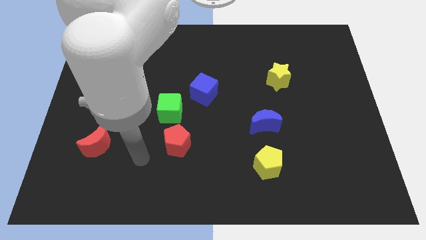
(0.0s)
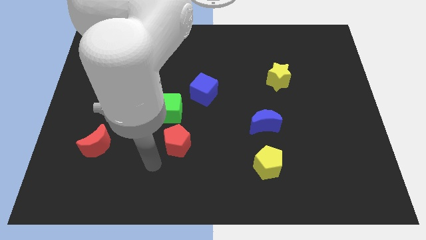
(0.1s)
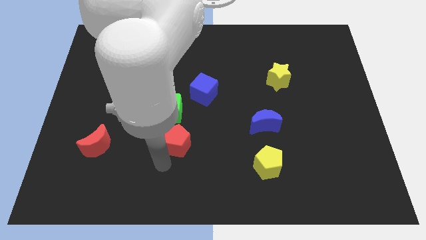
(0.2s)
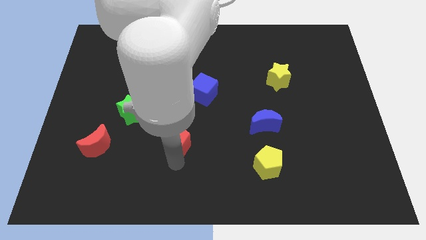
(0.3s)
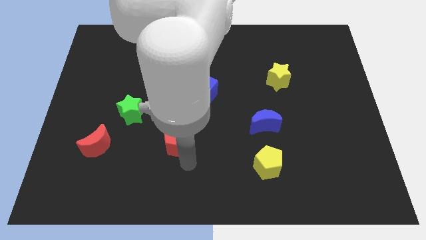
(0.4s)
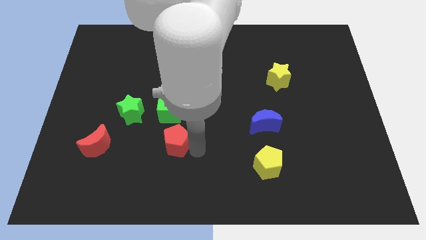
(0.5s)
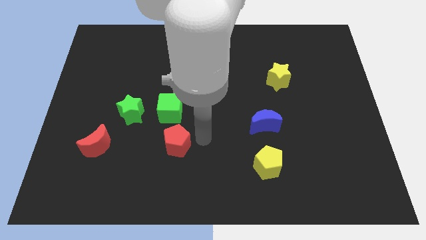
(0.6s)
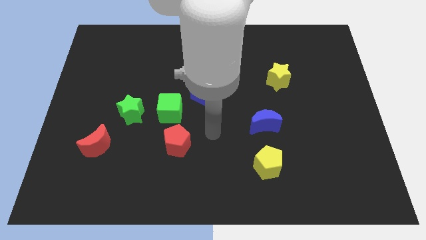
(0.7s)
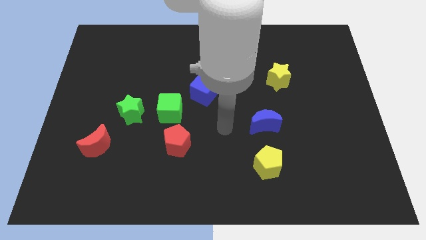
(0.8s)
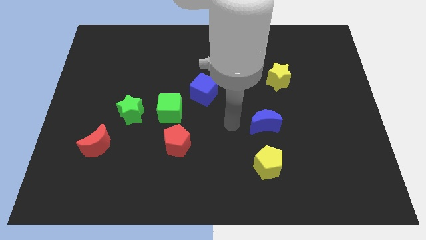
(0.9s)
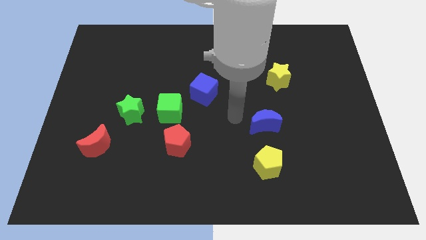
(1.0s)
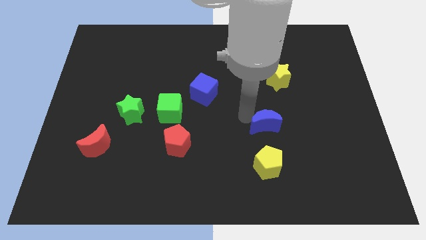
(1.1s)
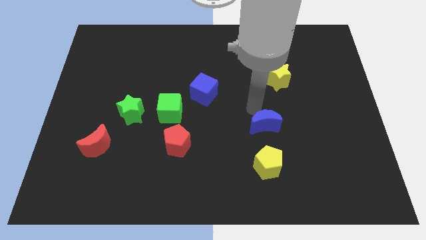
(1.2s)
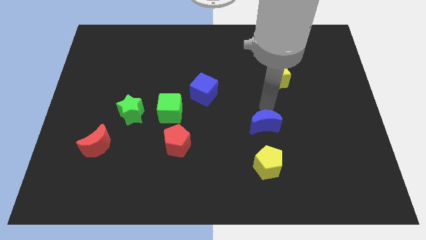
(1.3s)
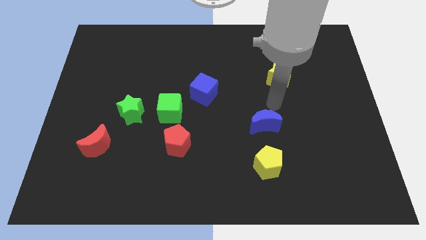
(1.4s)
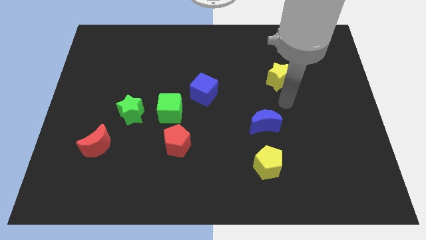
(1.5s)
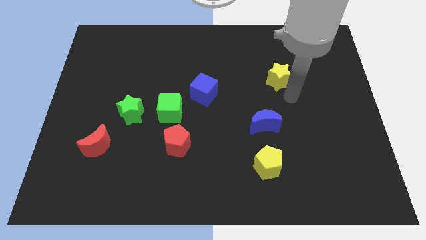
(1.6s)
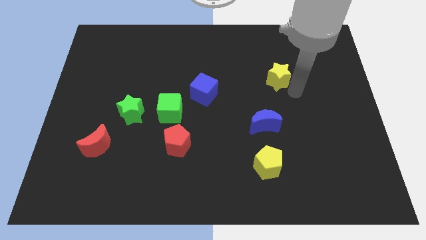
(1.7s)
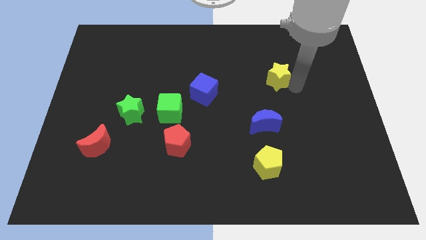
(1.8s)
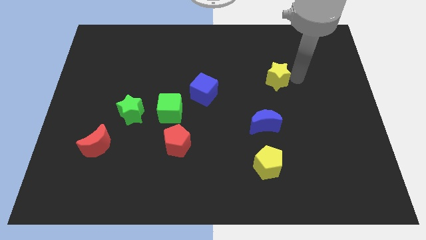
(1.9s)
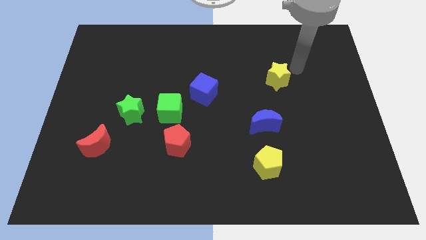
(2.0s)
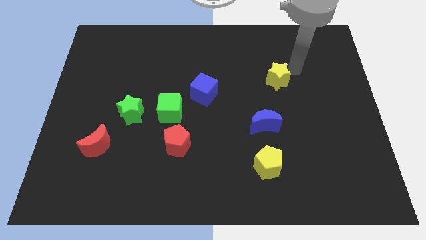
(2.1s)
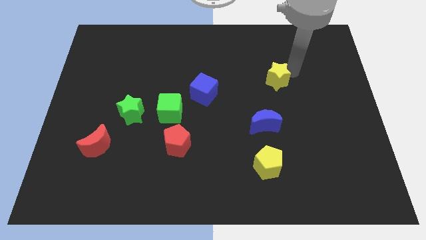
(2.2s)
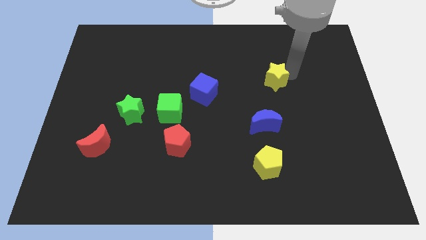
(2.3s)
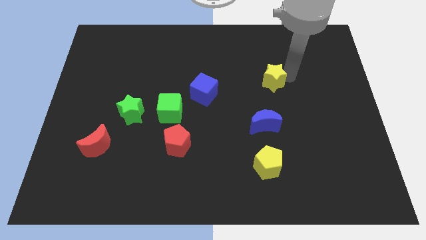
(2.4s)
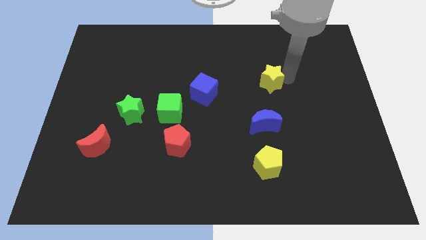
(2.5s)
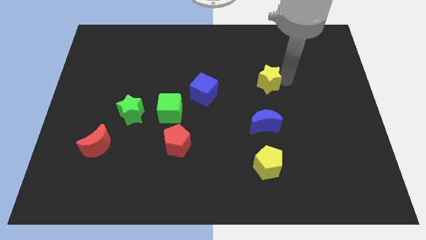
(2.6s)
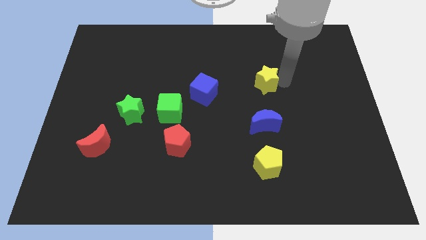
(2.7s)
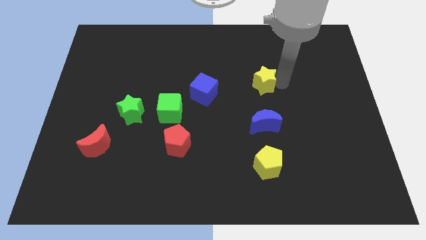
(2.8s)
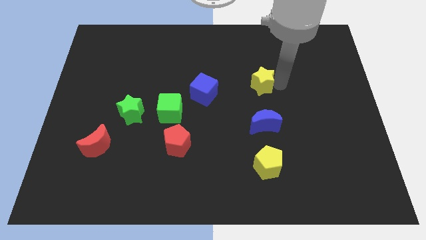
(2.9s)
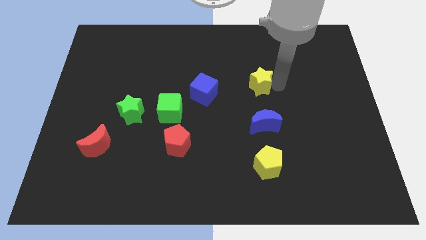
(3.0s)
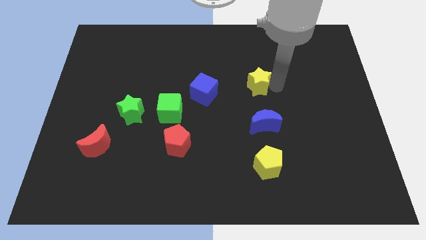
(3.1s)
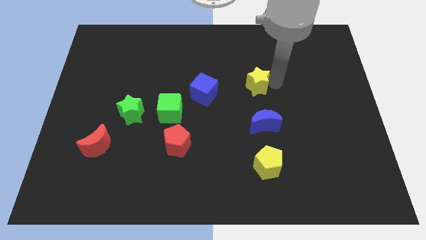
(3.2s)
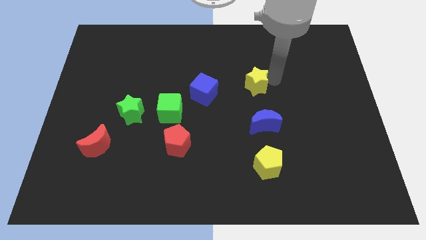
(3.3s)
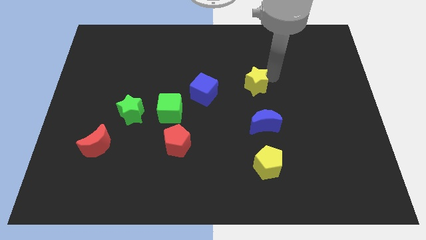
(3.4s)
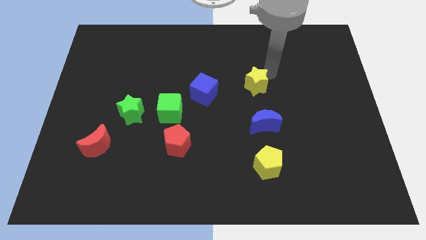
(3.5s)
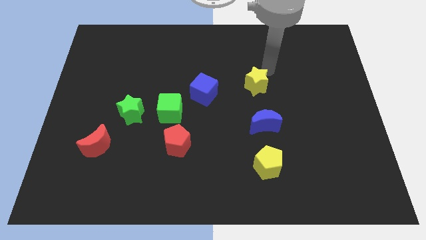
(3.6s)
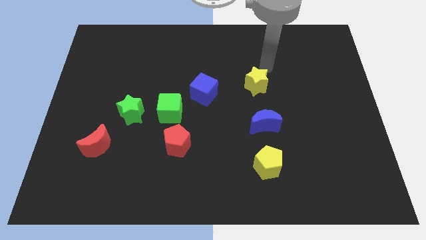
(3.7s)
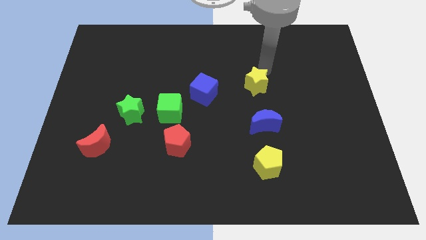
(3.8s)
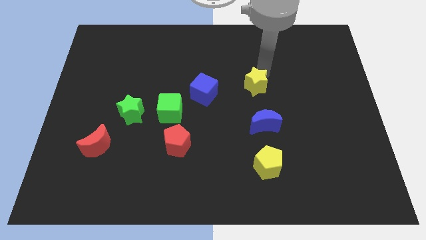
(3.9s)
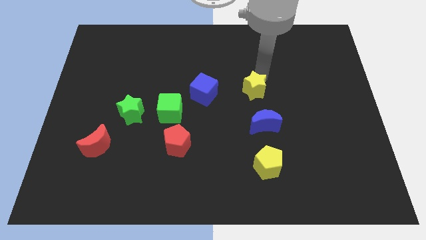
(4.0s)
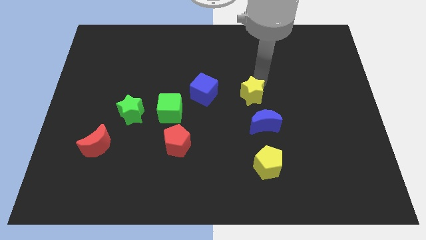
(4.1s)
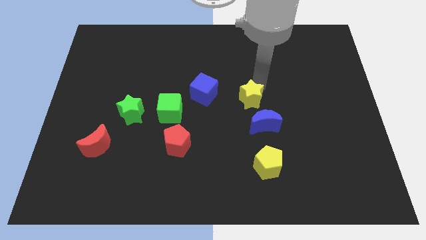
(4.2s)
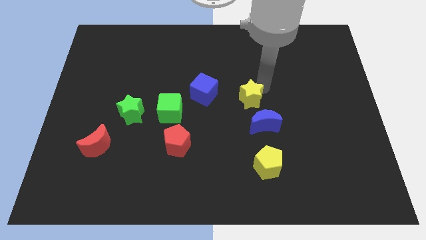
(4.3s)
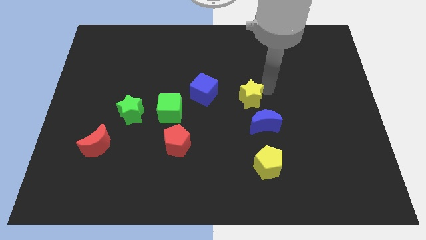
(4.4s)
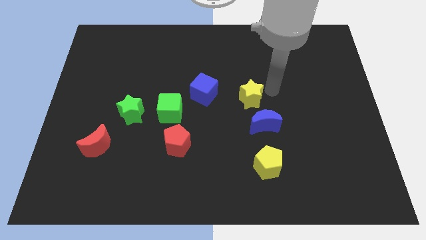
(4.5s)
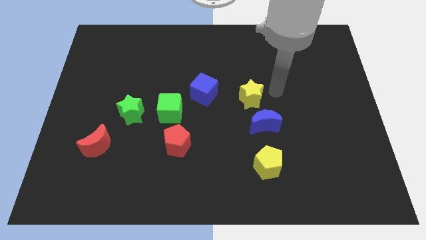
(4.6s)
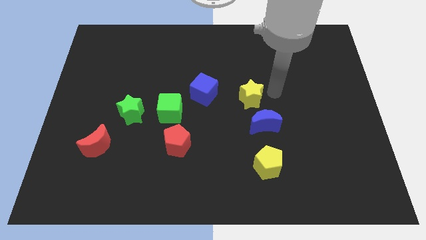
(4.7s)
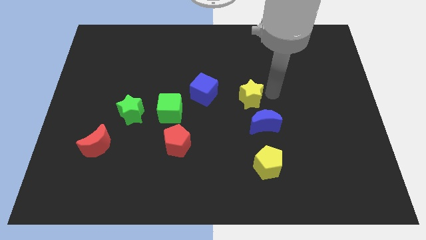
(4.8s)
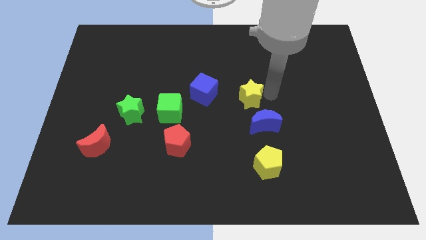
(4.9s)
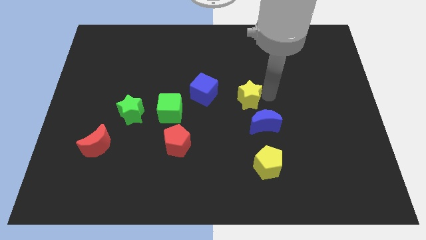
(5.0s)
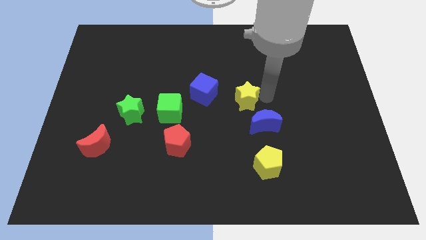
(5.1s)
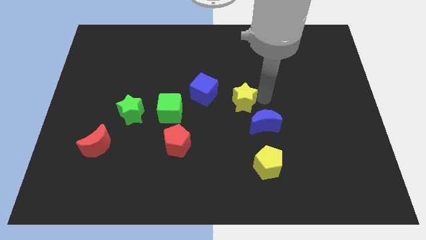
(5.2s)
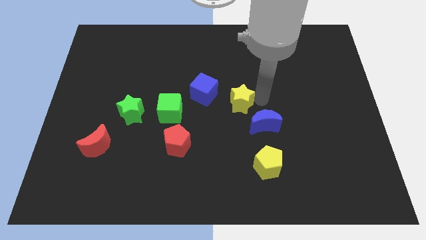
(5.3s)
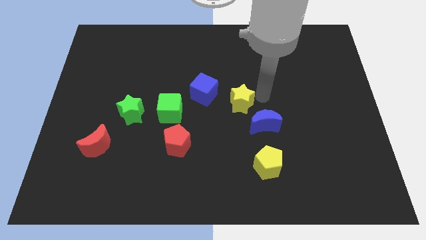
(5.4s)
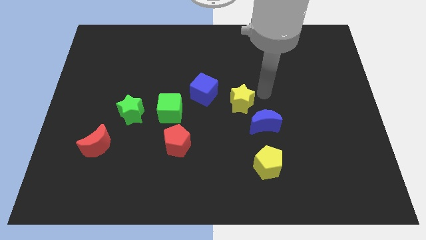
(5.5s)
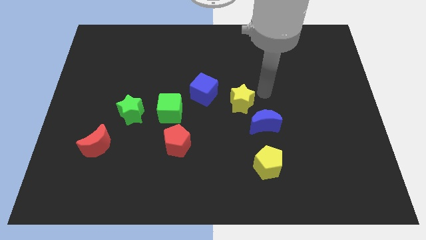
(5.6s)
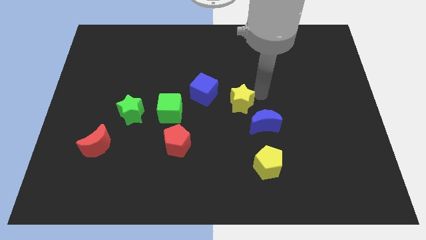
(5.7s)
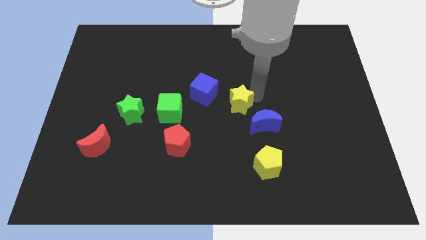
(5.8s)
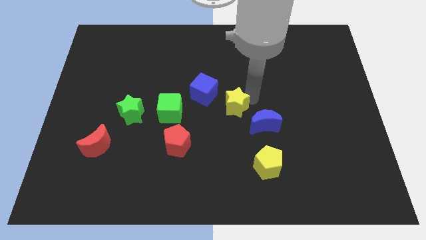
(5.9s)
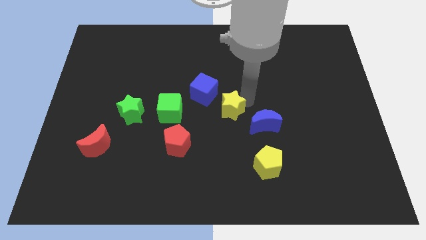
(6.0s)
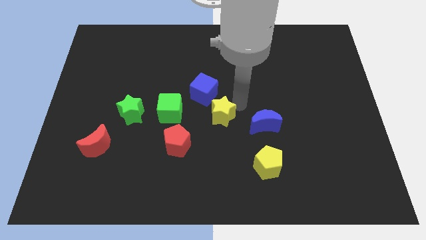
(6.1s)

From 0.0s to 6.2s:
slide the yellow star to the bottom of the blue cube

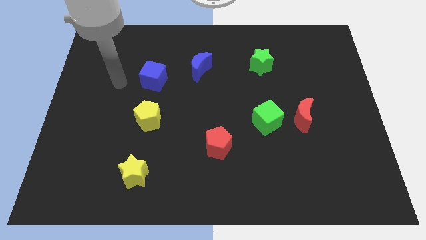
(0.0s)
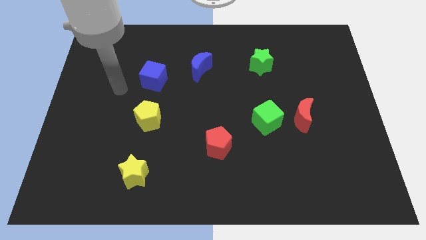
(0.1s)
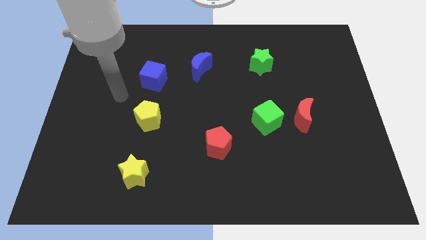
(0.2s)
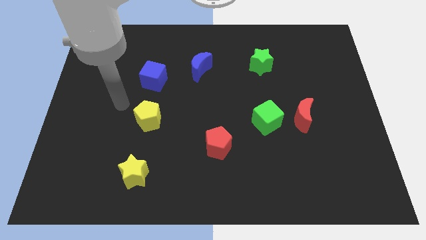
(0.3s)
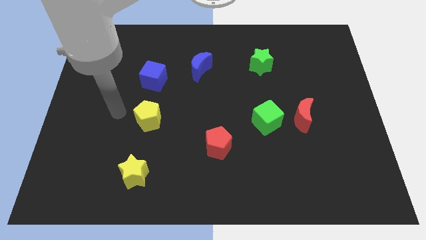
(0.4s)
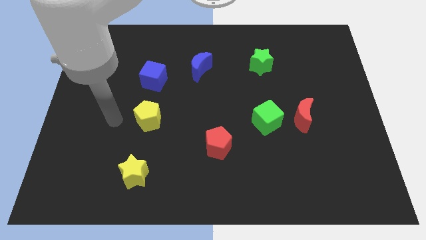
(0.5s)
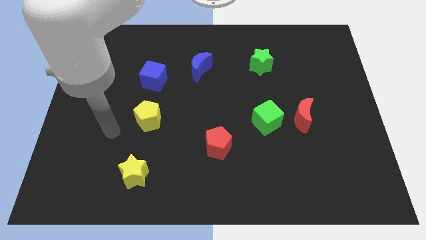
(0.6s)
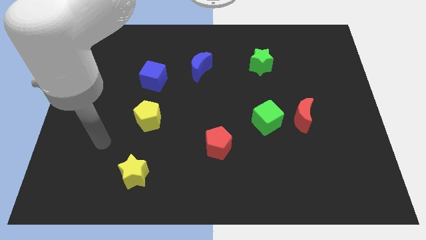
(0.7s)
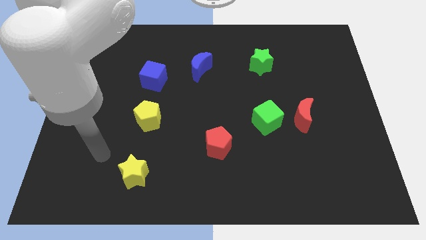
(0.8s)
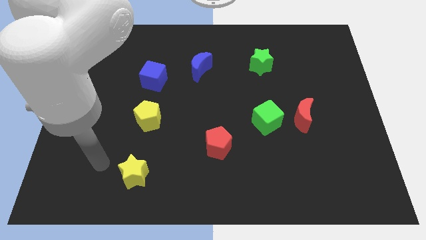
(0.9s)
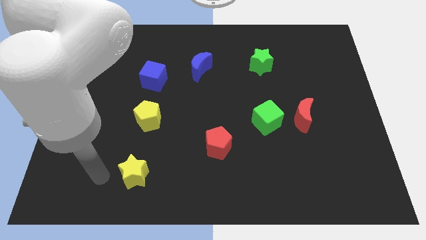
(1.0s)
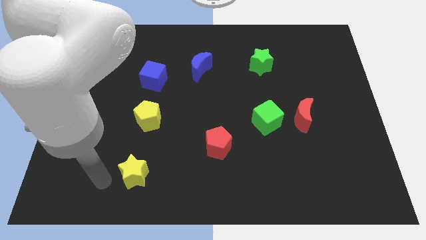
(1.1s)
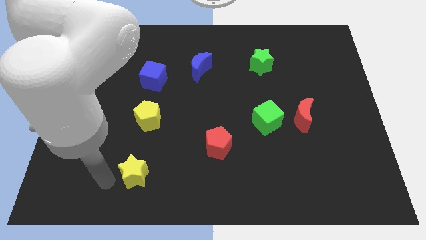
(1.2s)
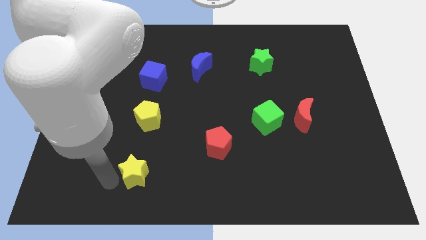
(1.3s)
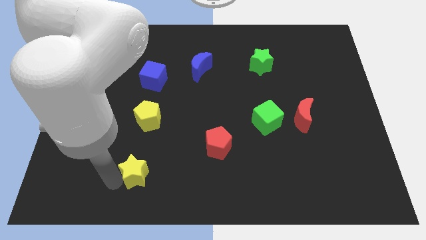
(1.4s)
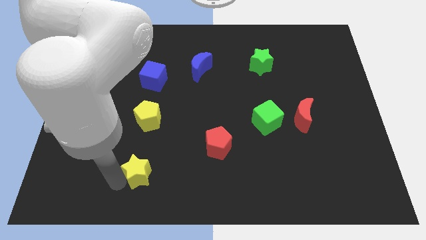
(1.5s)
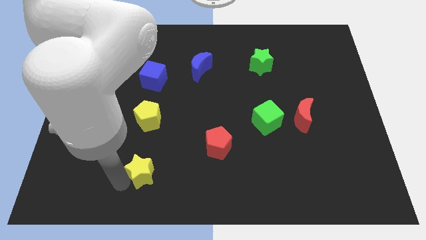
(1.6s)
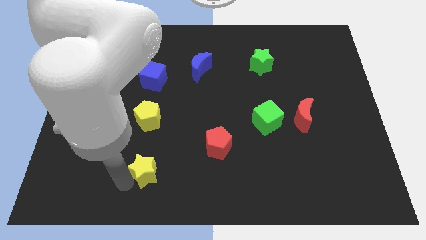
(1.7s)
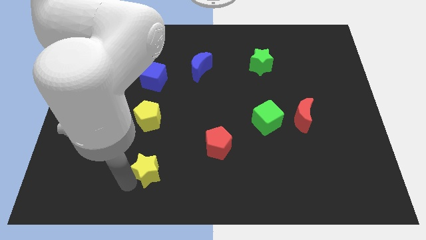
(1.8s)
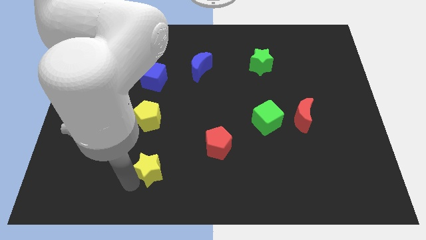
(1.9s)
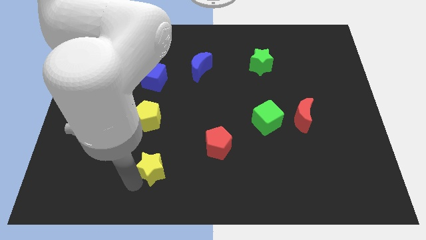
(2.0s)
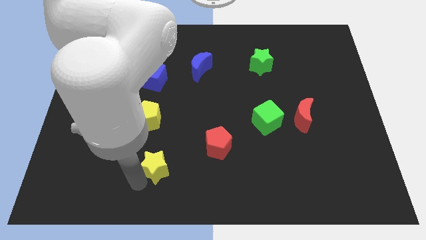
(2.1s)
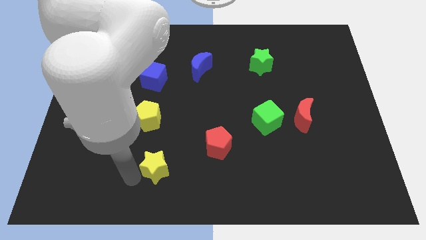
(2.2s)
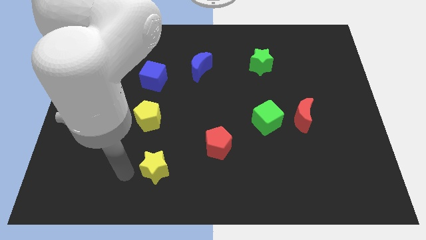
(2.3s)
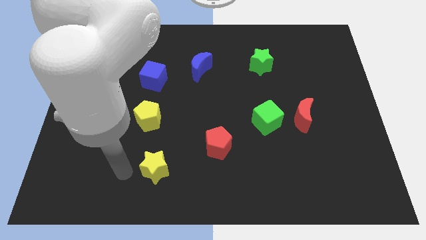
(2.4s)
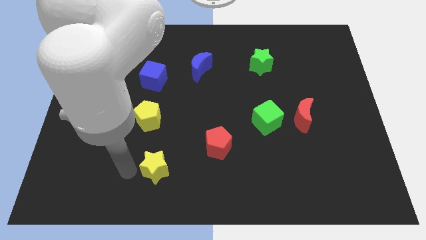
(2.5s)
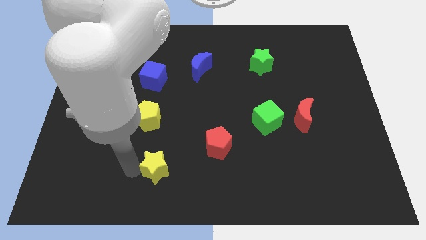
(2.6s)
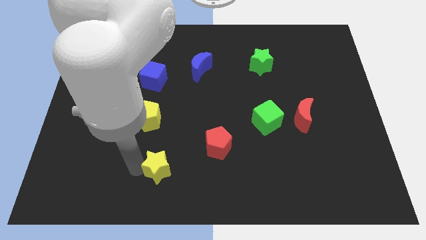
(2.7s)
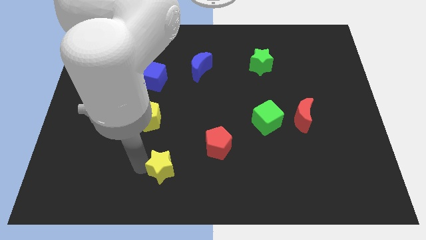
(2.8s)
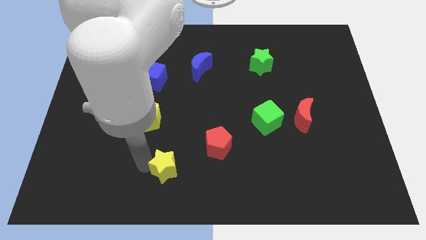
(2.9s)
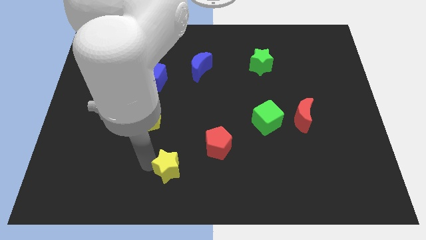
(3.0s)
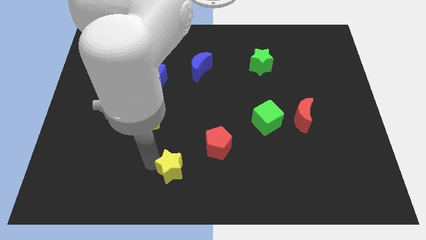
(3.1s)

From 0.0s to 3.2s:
push the yellow star to the bottom left side of the red pentagon
